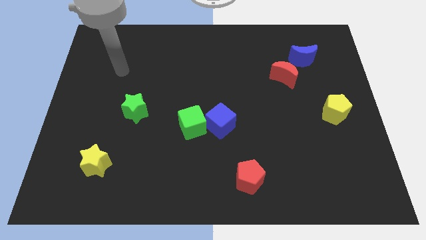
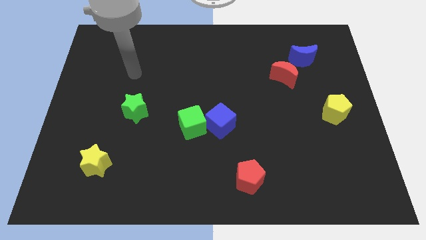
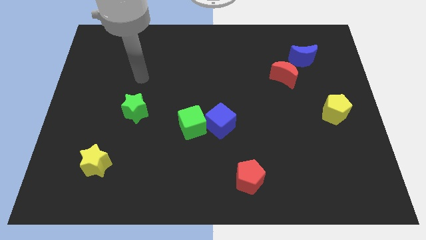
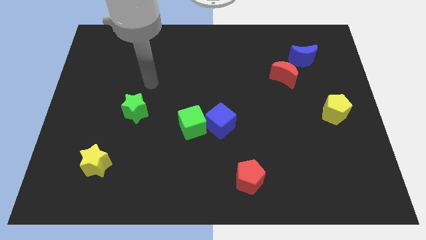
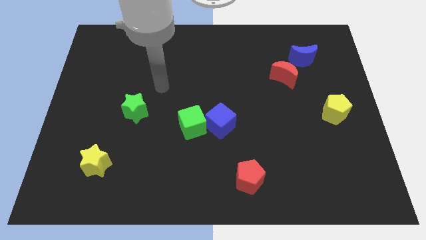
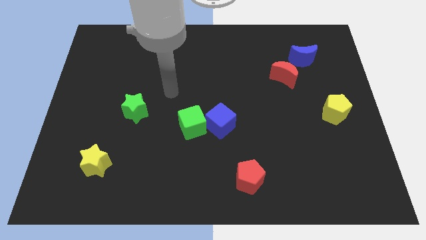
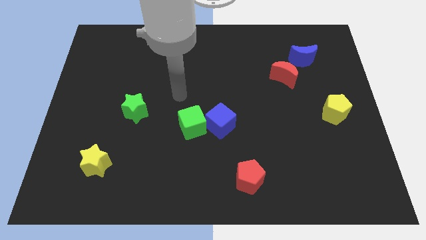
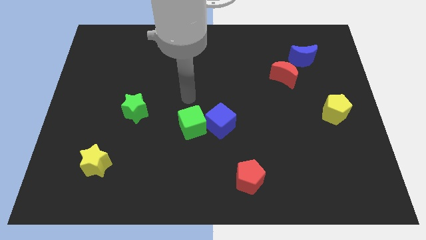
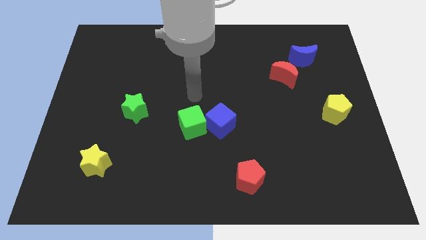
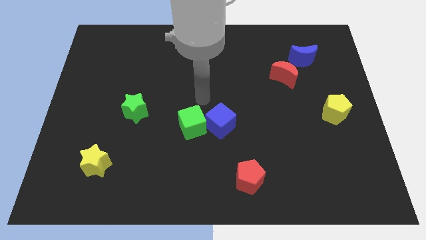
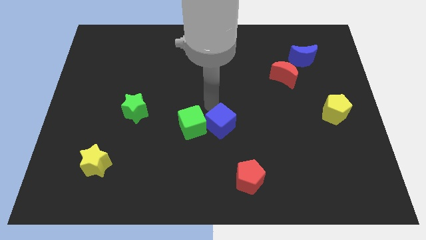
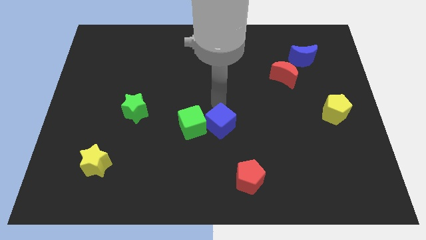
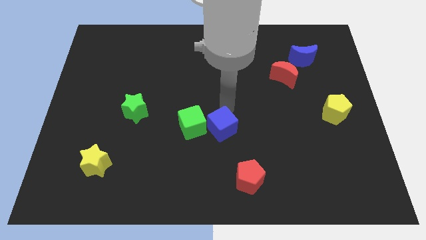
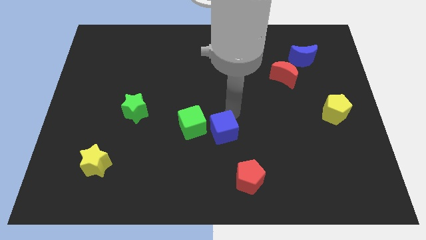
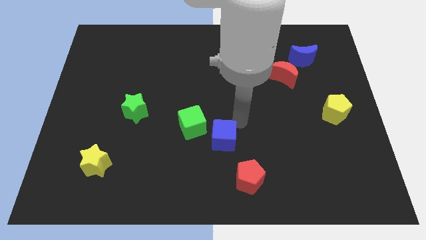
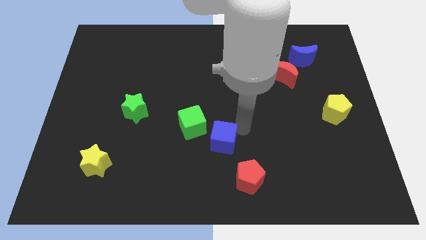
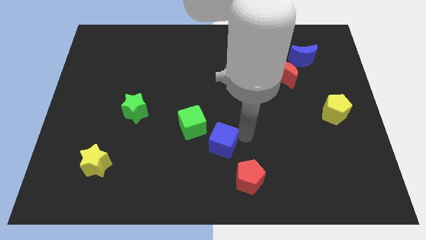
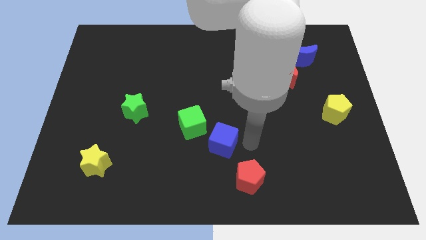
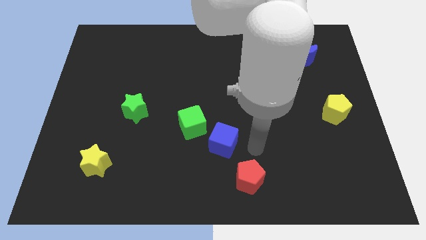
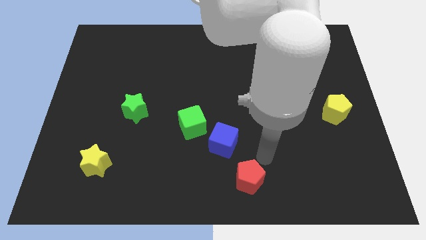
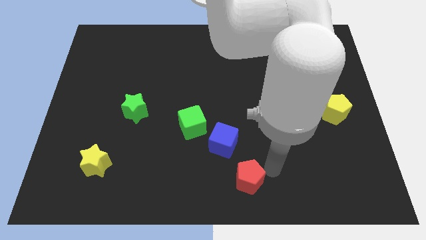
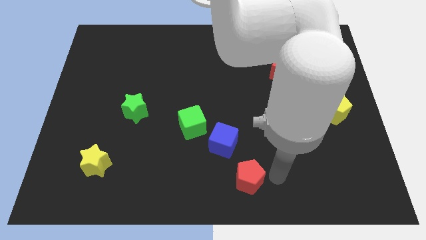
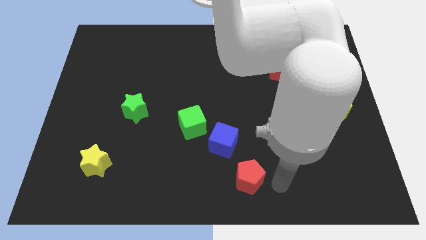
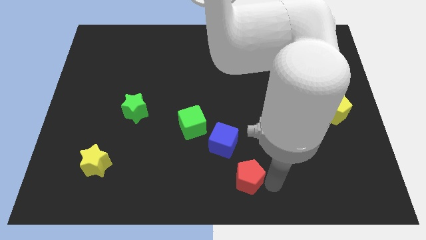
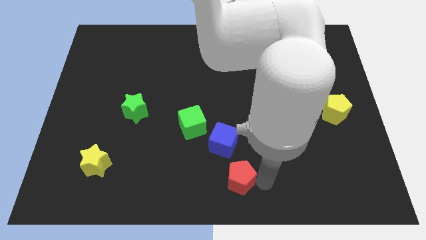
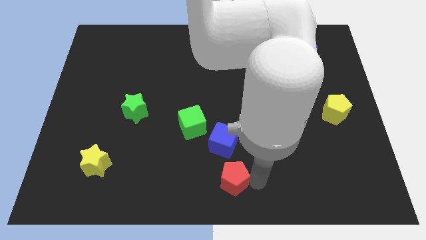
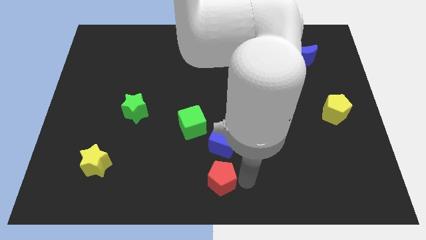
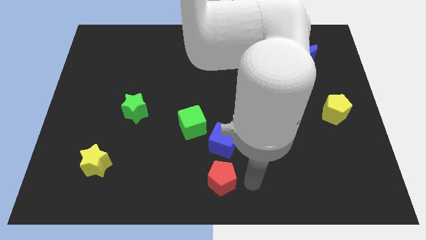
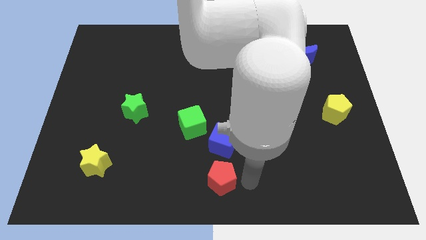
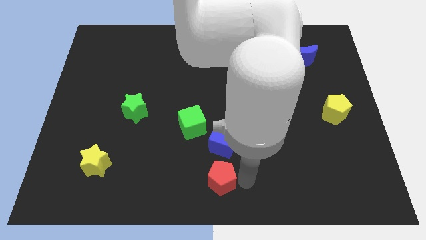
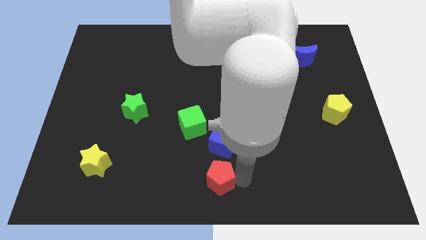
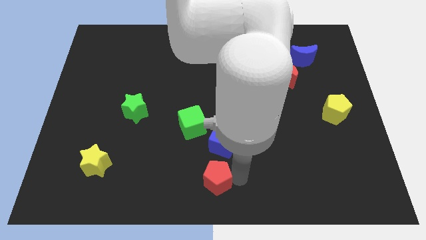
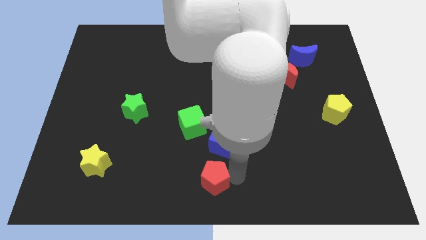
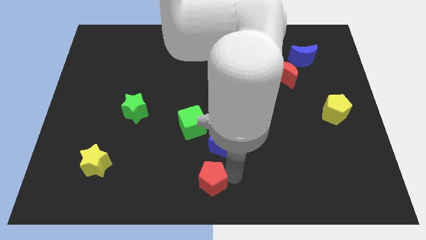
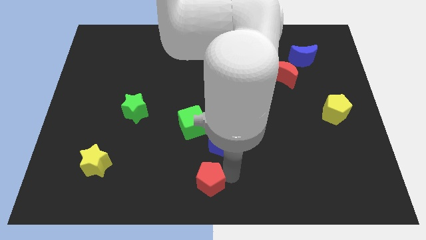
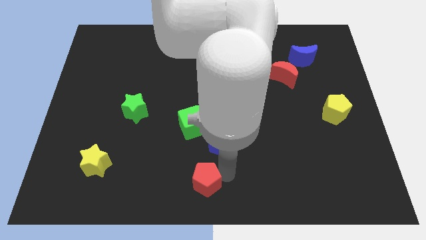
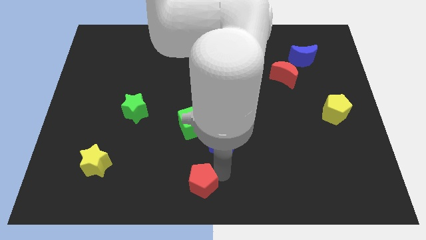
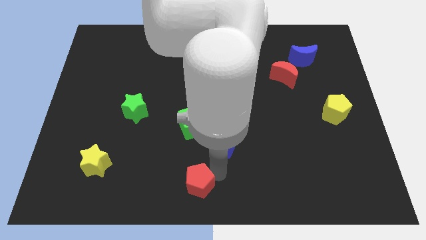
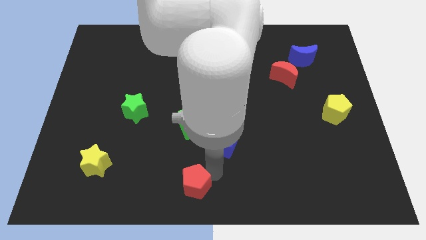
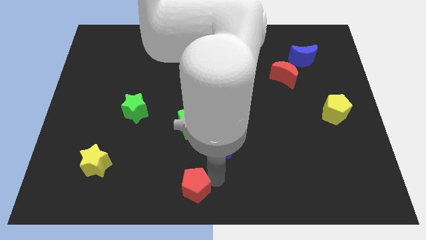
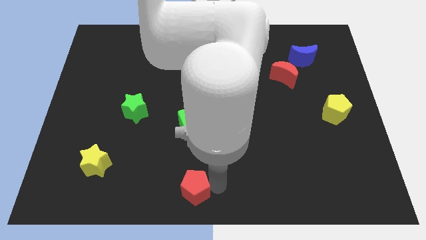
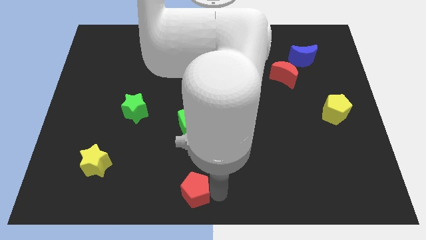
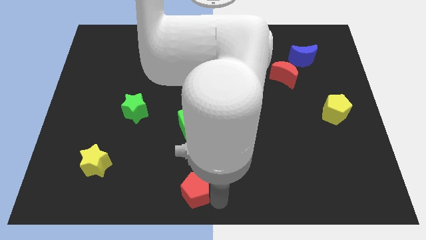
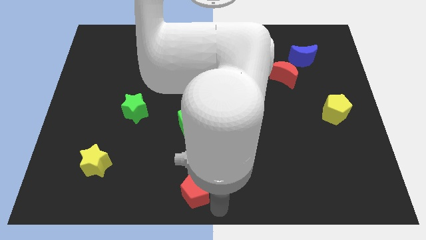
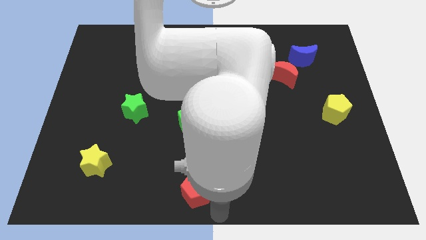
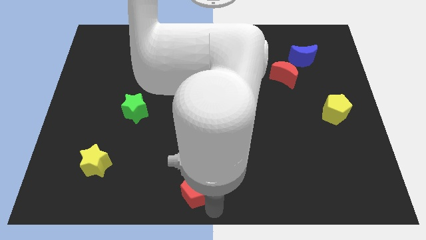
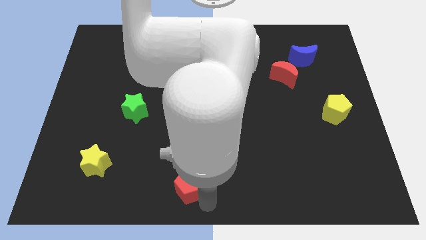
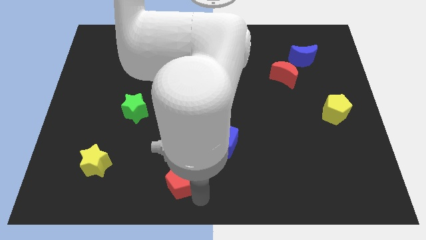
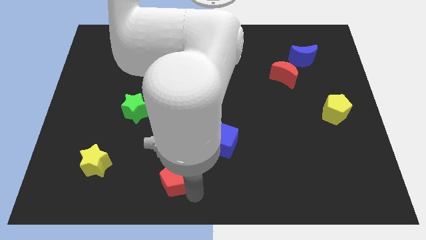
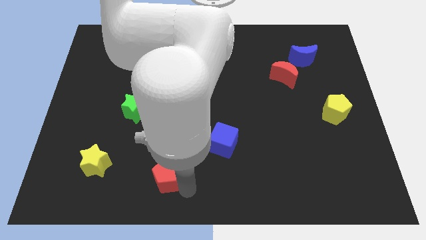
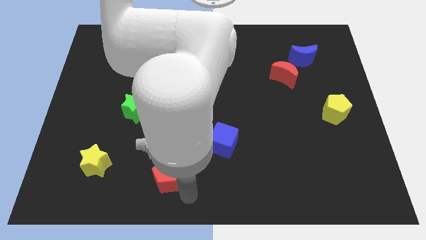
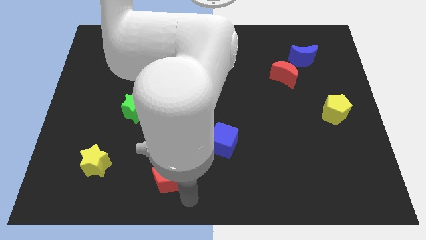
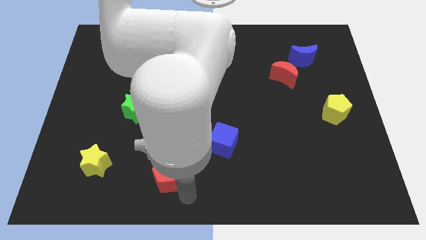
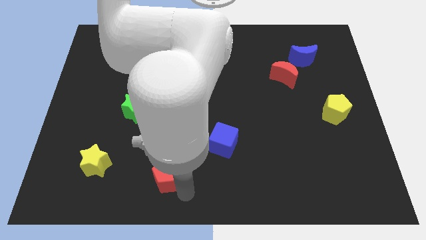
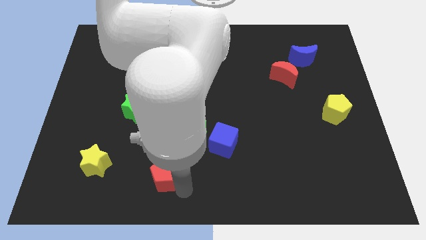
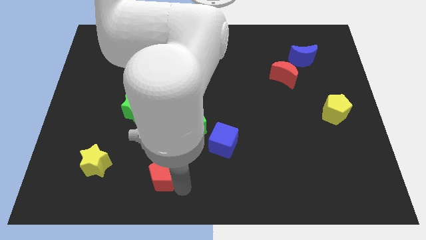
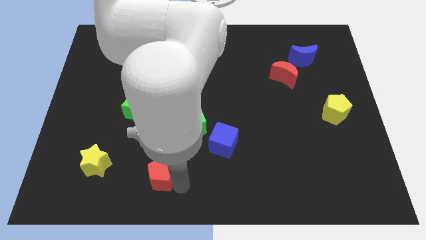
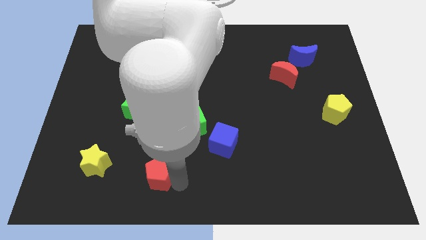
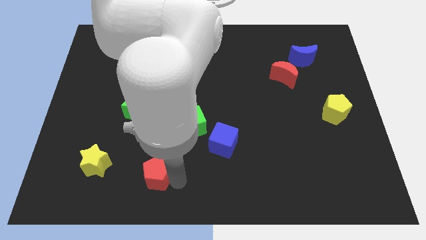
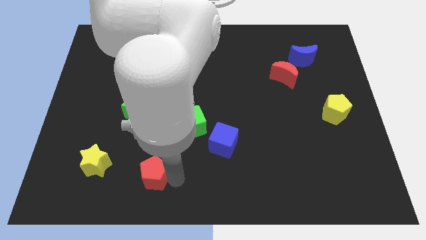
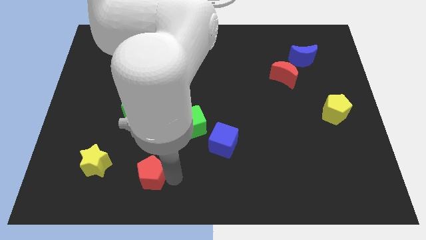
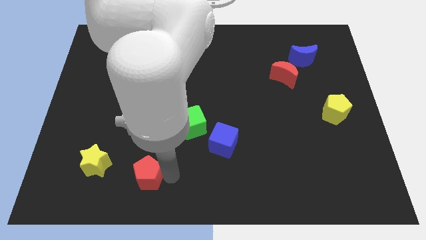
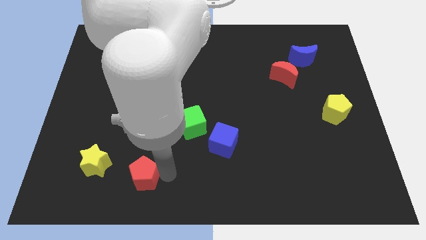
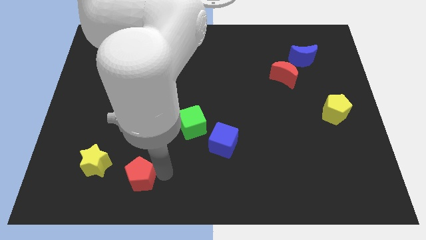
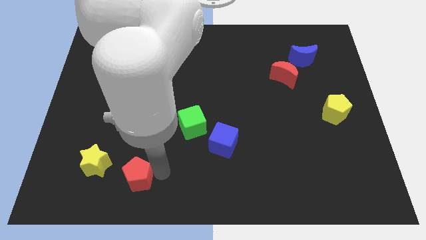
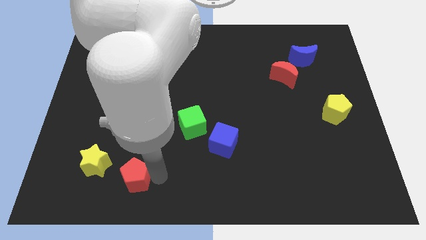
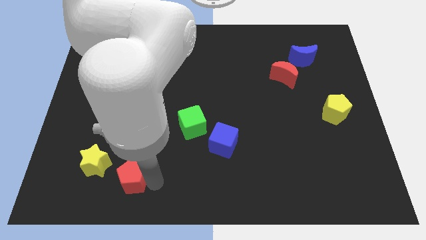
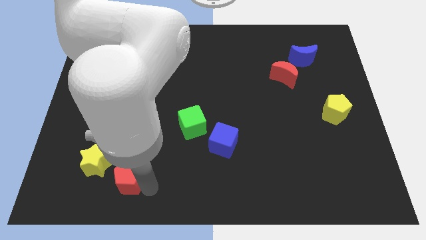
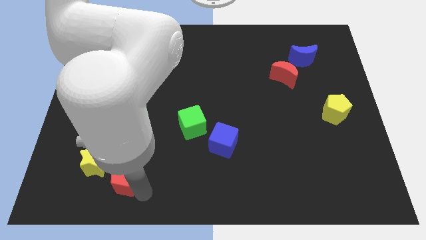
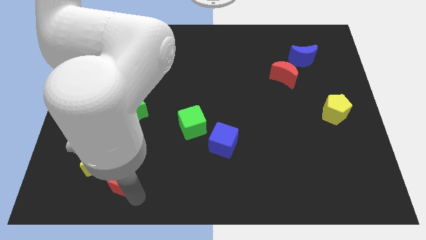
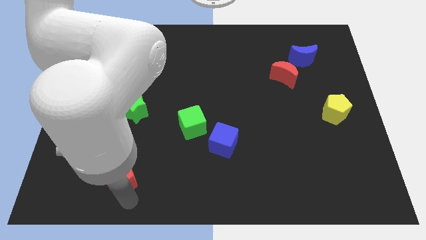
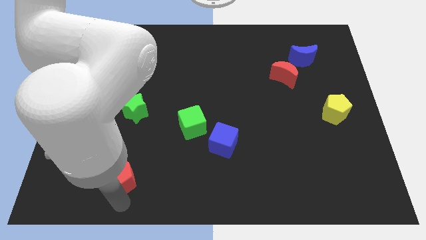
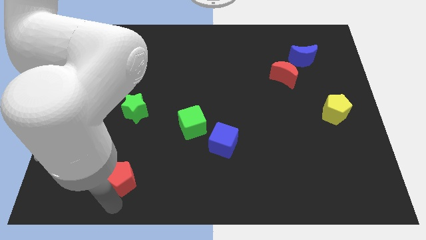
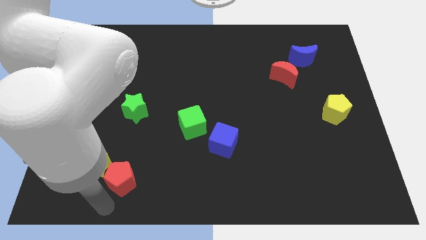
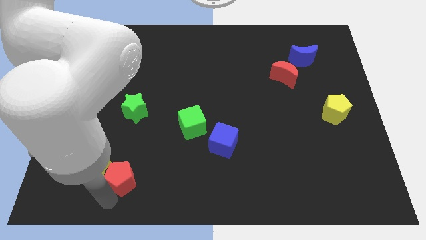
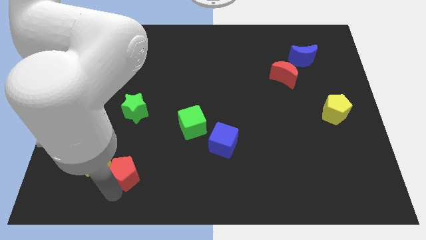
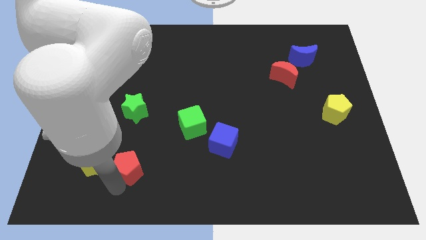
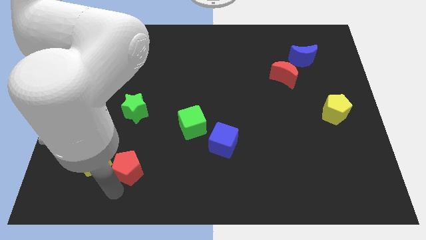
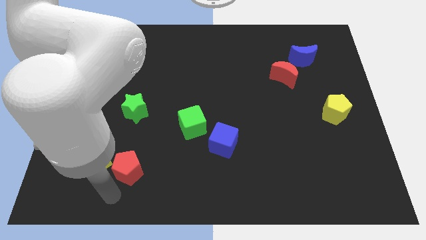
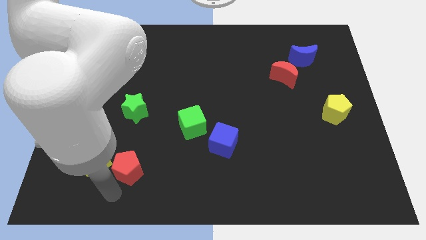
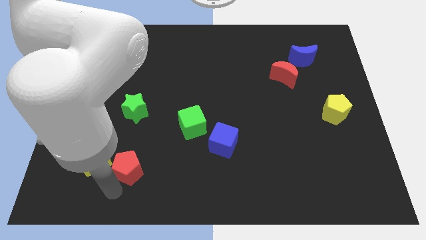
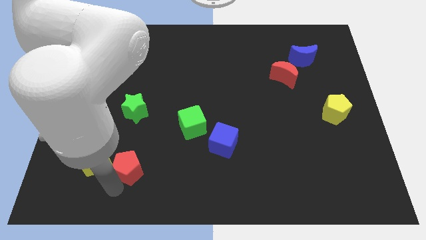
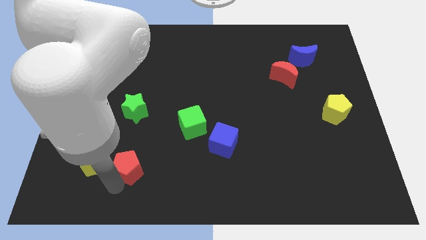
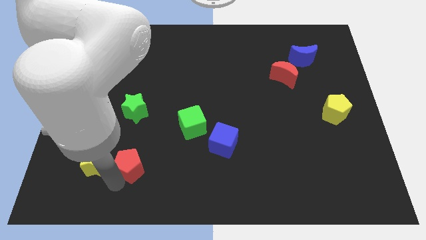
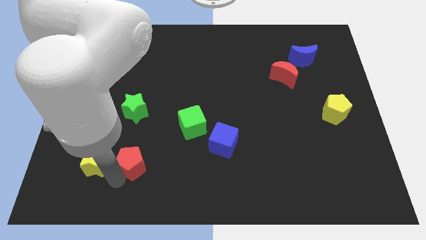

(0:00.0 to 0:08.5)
put the red pentagon diagonally up and to the right of the yellow star
